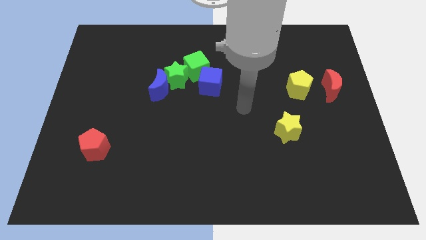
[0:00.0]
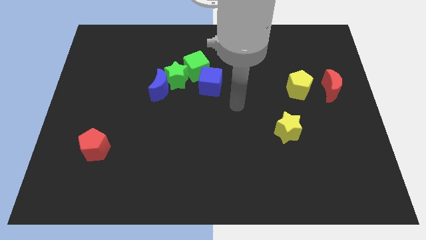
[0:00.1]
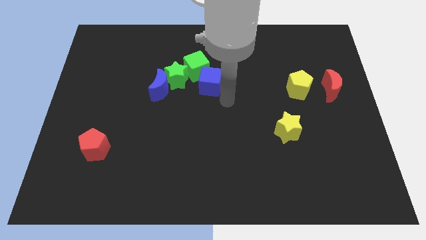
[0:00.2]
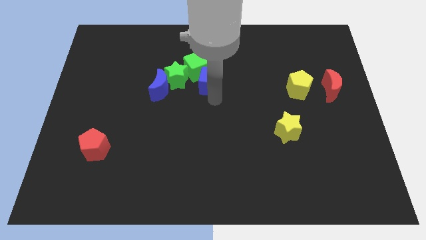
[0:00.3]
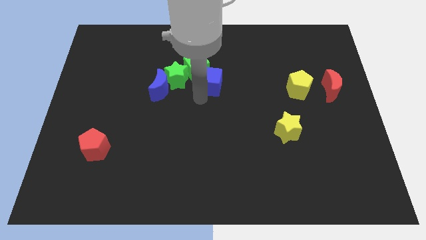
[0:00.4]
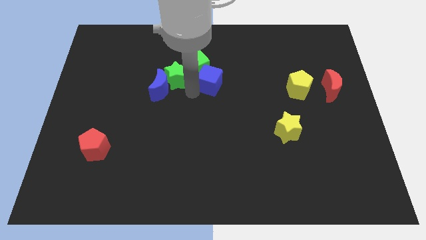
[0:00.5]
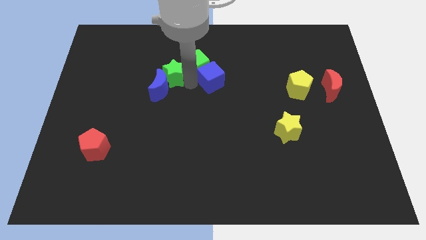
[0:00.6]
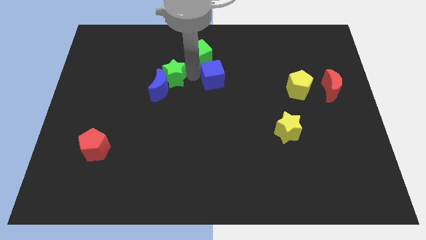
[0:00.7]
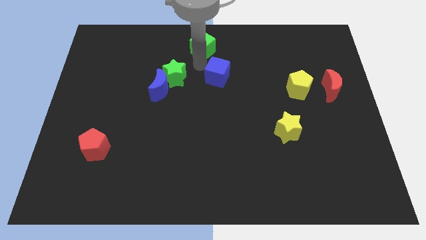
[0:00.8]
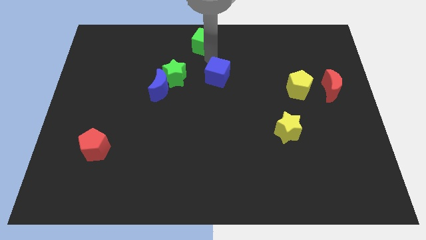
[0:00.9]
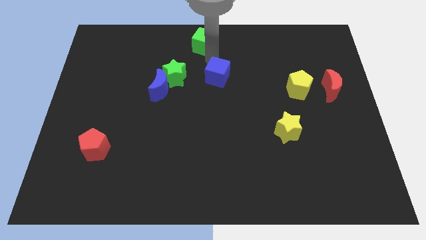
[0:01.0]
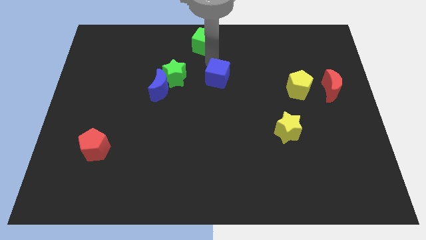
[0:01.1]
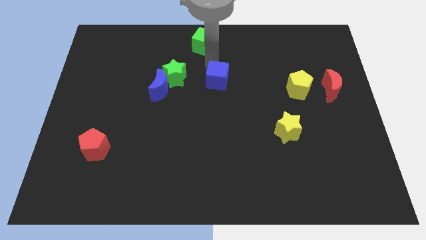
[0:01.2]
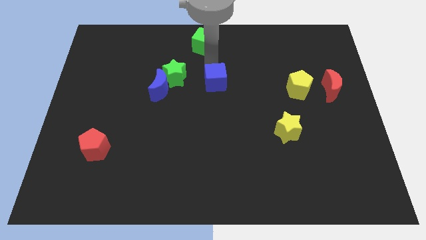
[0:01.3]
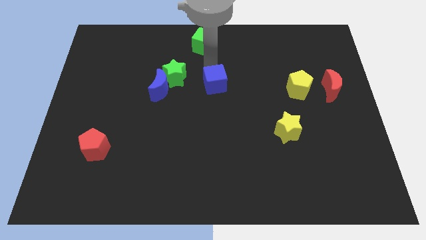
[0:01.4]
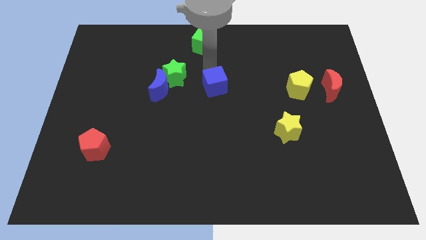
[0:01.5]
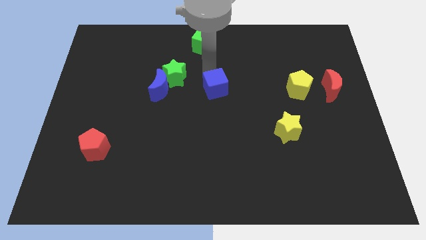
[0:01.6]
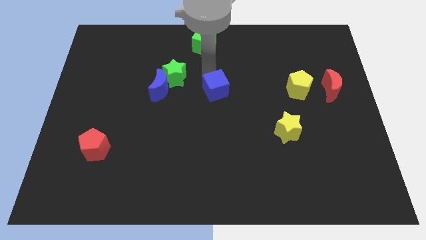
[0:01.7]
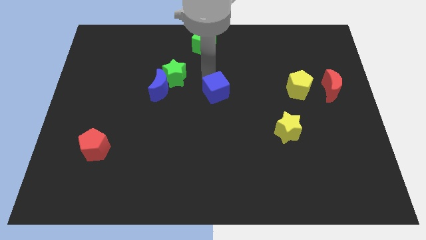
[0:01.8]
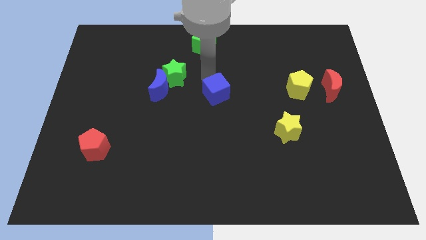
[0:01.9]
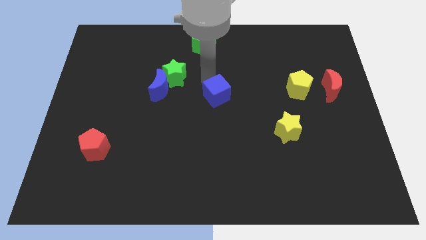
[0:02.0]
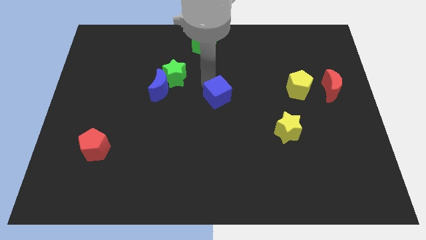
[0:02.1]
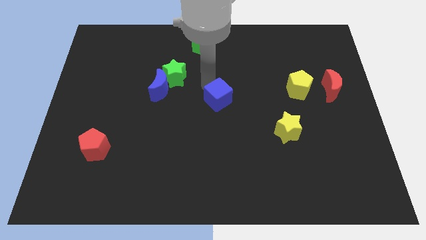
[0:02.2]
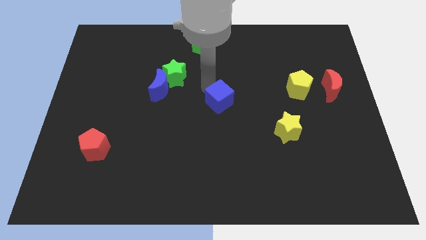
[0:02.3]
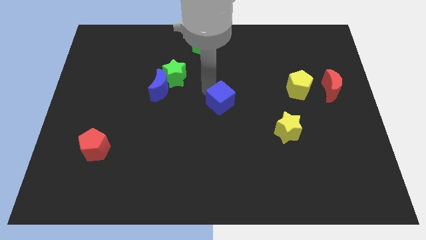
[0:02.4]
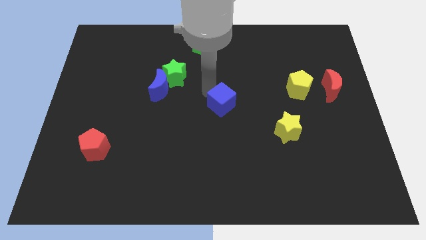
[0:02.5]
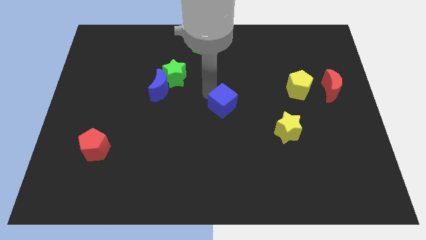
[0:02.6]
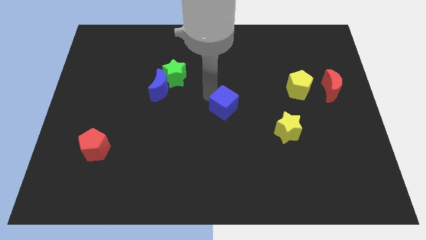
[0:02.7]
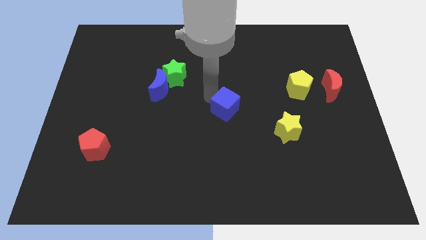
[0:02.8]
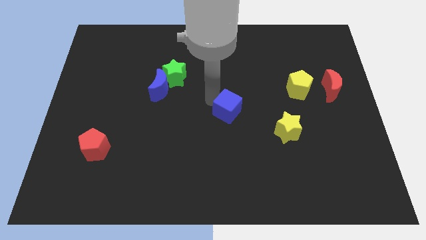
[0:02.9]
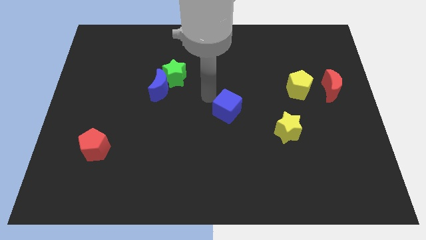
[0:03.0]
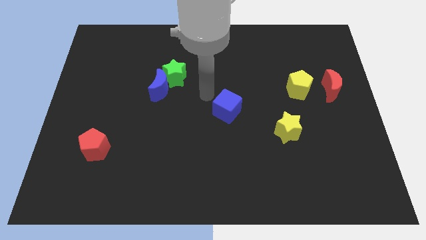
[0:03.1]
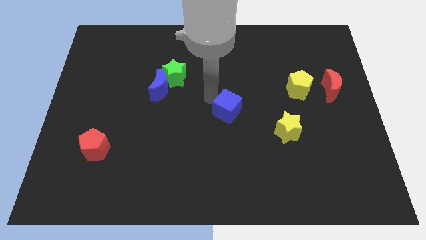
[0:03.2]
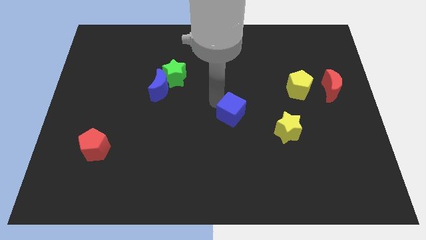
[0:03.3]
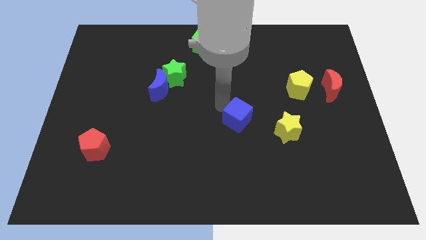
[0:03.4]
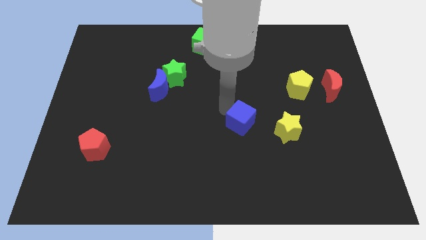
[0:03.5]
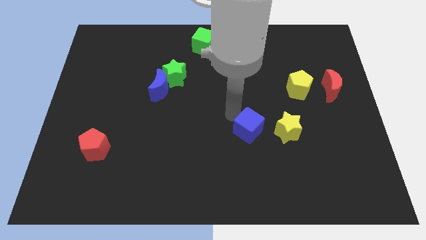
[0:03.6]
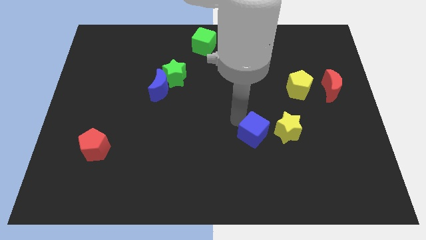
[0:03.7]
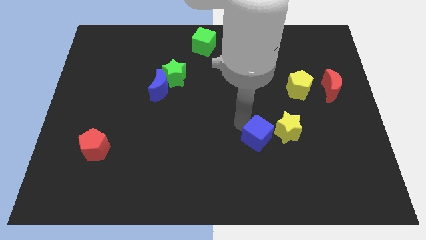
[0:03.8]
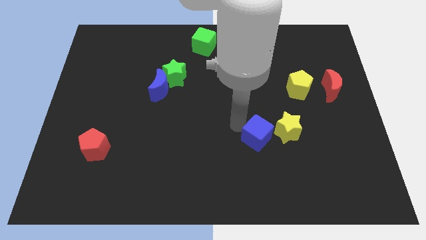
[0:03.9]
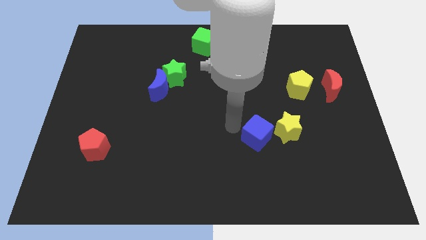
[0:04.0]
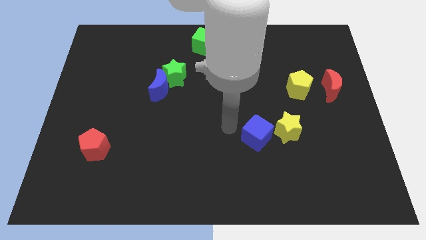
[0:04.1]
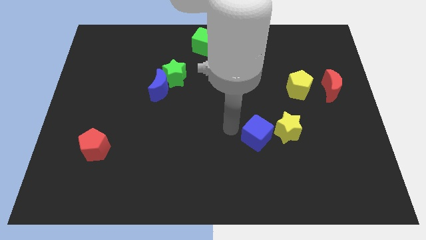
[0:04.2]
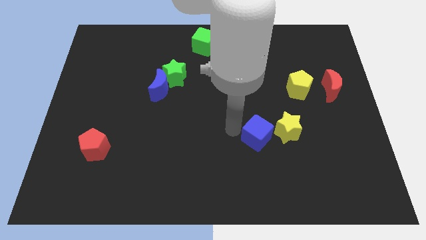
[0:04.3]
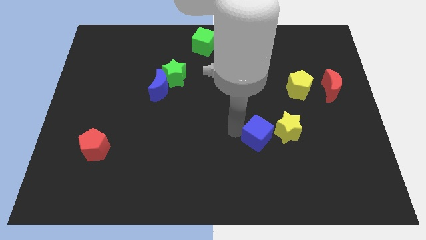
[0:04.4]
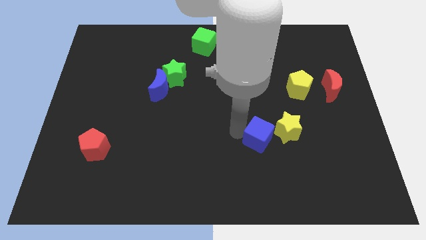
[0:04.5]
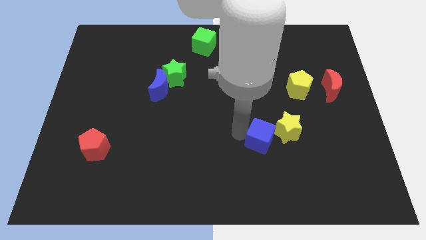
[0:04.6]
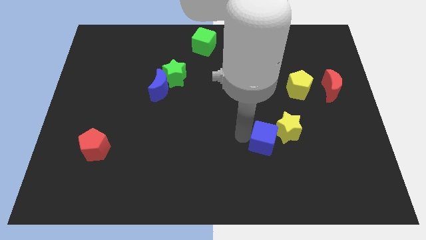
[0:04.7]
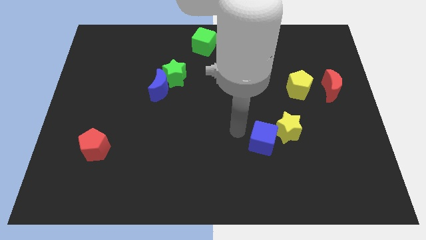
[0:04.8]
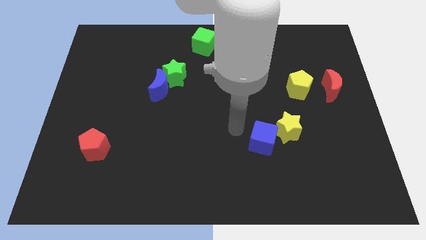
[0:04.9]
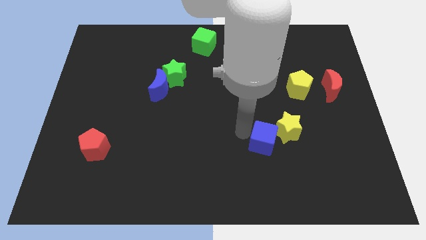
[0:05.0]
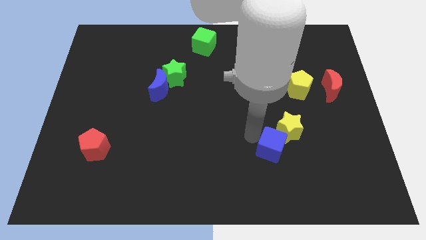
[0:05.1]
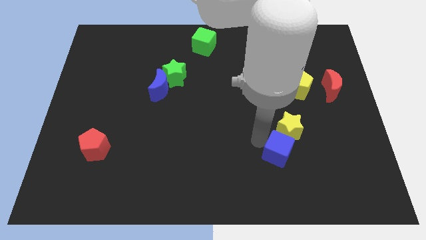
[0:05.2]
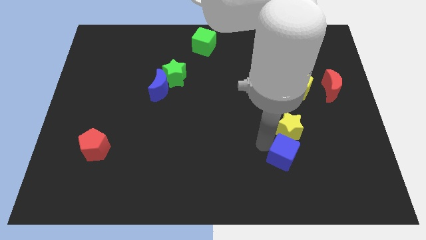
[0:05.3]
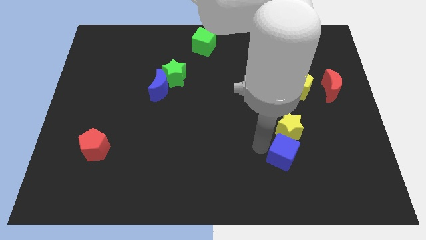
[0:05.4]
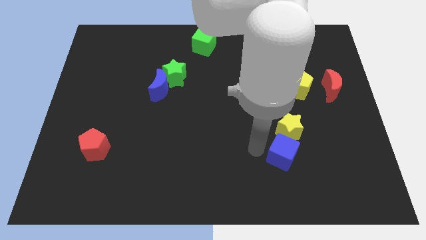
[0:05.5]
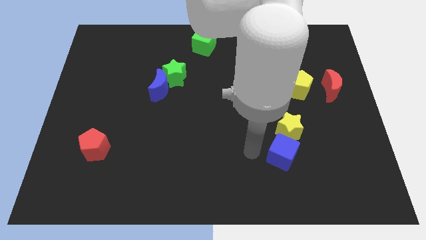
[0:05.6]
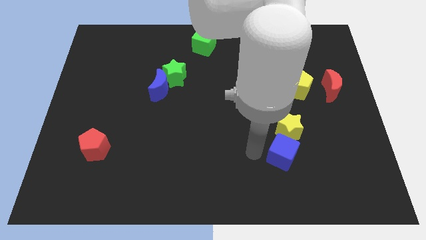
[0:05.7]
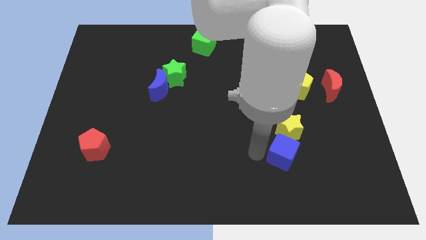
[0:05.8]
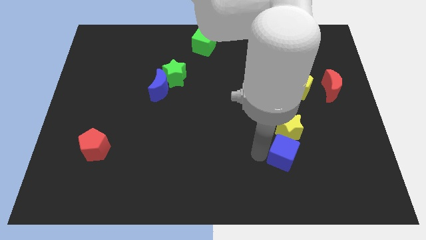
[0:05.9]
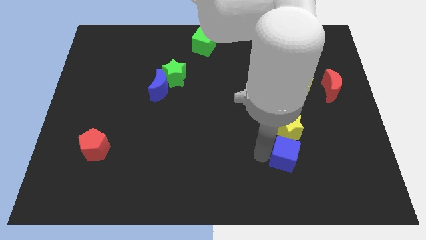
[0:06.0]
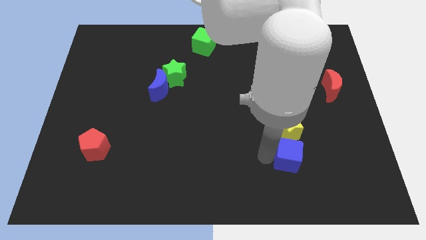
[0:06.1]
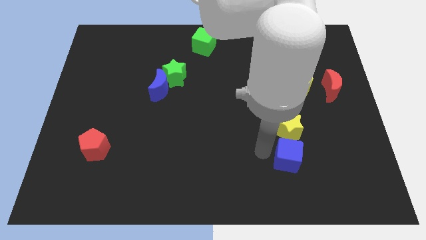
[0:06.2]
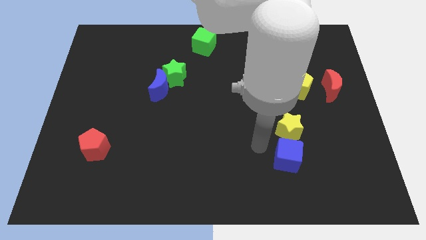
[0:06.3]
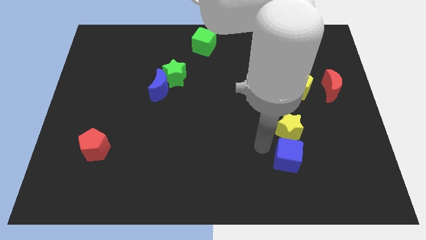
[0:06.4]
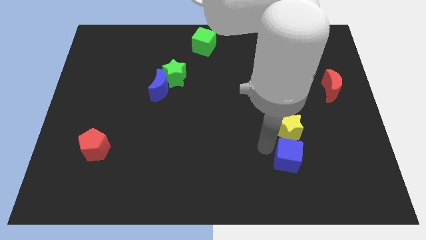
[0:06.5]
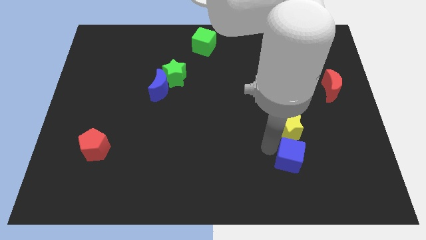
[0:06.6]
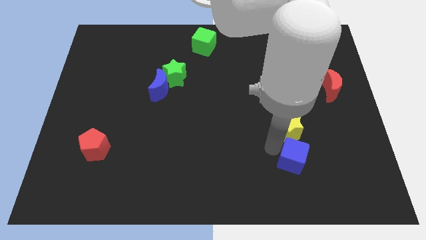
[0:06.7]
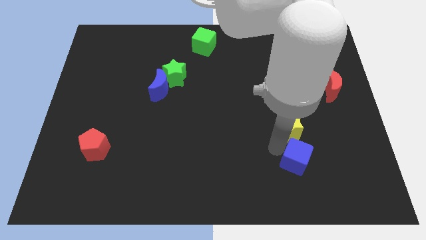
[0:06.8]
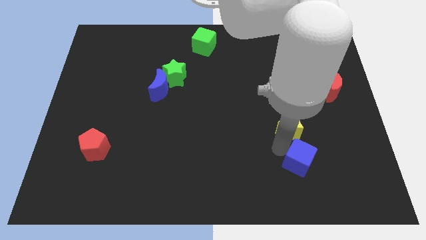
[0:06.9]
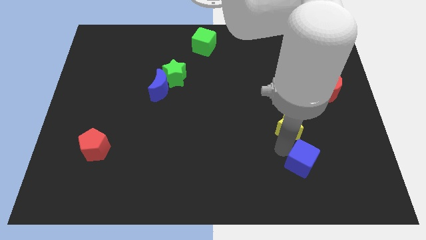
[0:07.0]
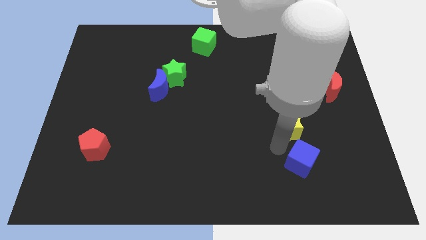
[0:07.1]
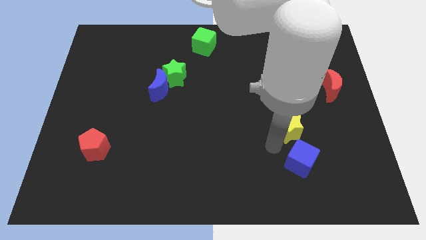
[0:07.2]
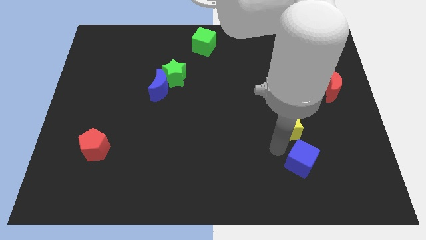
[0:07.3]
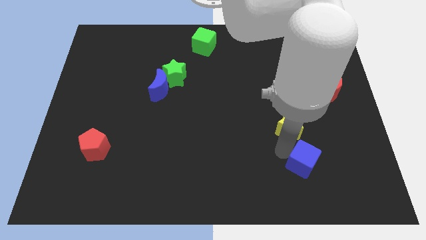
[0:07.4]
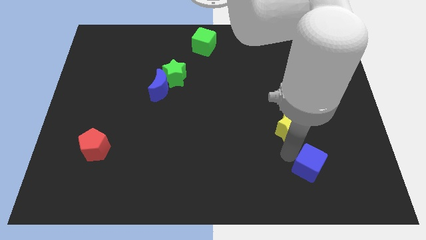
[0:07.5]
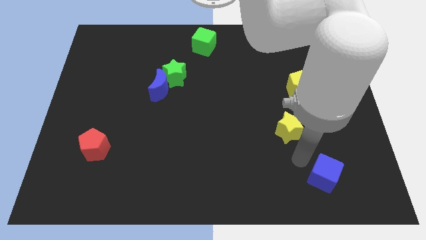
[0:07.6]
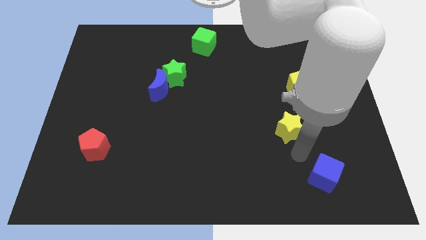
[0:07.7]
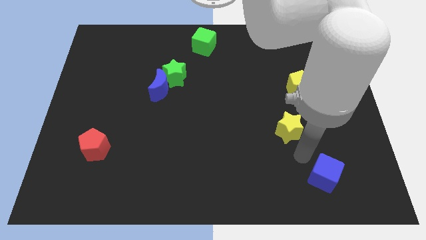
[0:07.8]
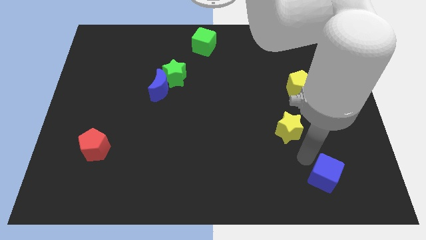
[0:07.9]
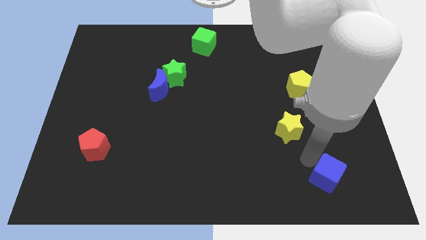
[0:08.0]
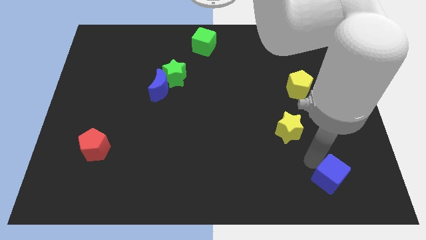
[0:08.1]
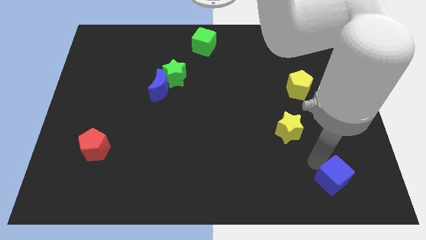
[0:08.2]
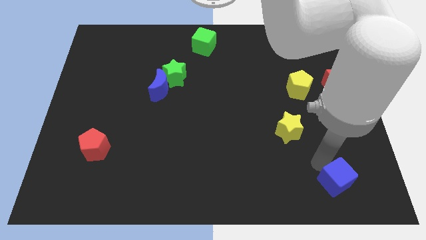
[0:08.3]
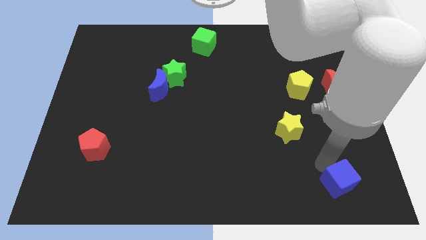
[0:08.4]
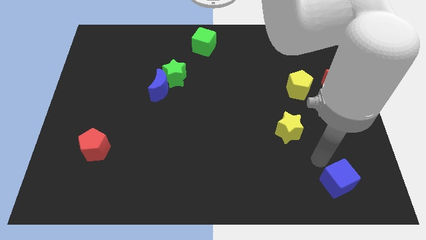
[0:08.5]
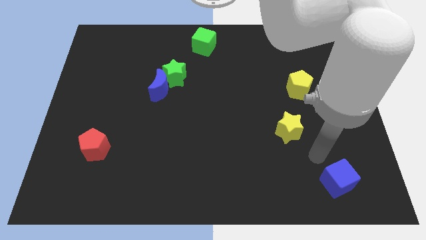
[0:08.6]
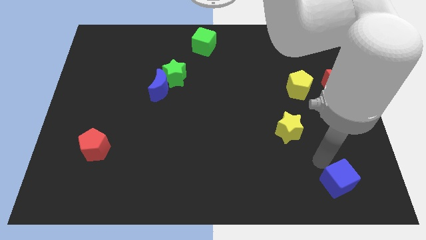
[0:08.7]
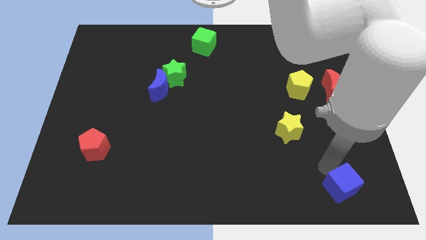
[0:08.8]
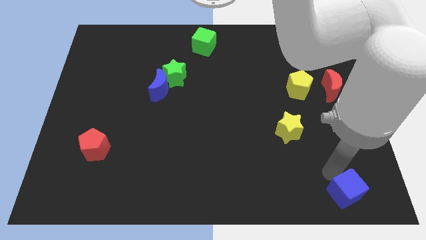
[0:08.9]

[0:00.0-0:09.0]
move the blue cube to the bottom right
